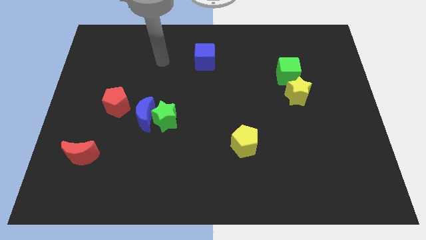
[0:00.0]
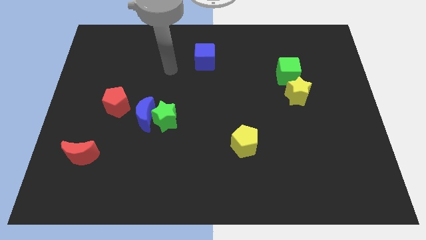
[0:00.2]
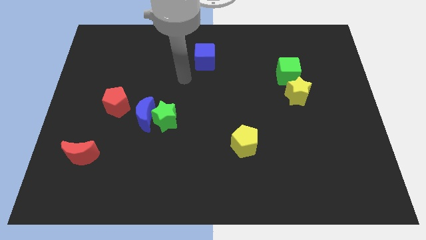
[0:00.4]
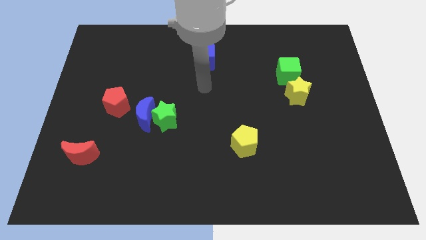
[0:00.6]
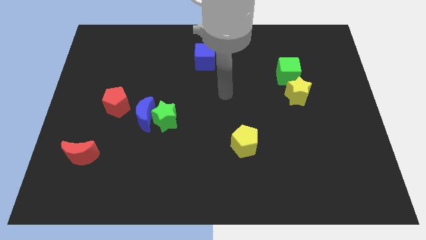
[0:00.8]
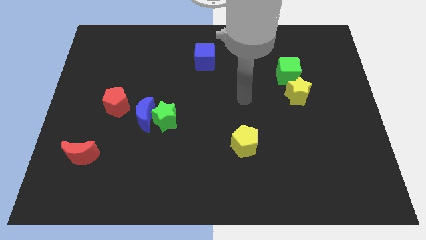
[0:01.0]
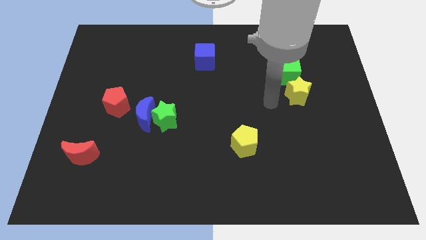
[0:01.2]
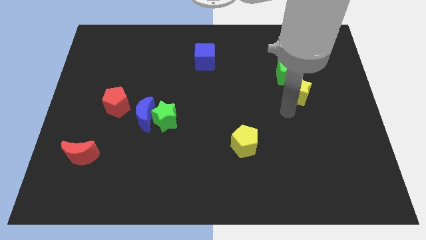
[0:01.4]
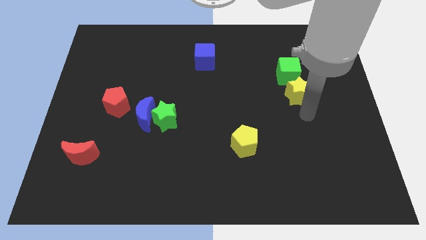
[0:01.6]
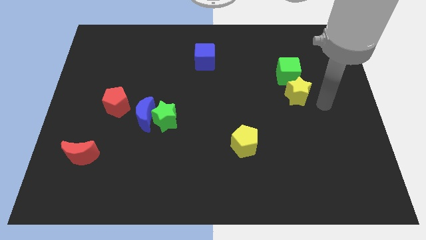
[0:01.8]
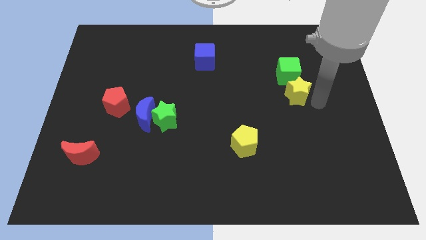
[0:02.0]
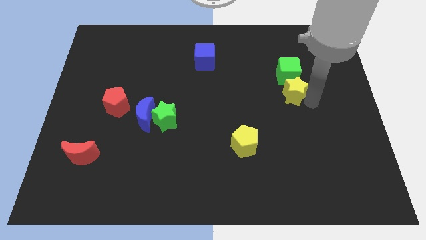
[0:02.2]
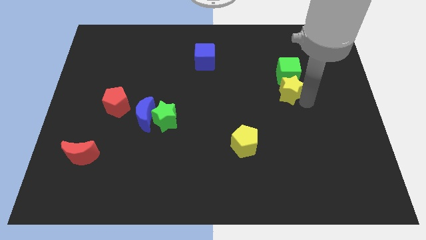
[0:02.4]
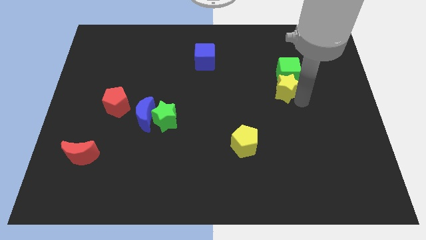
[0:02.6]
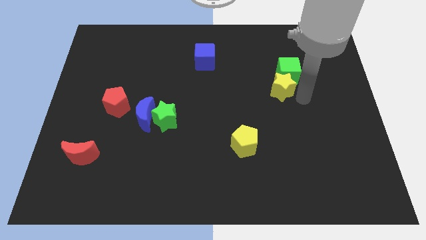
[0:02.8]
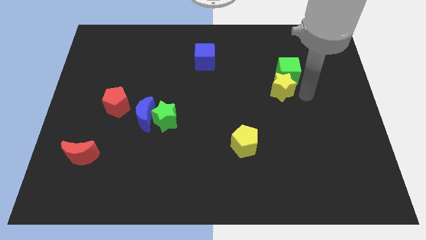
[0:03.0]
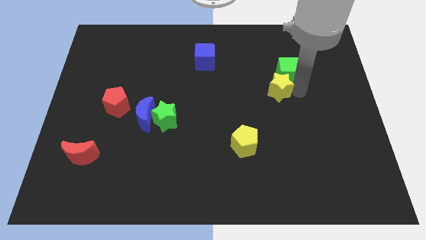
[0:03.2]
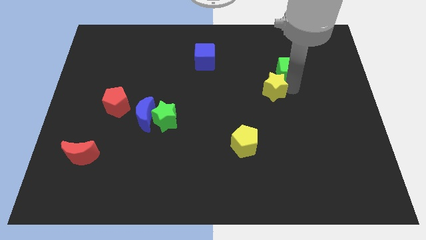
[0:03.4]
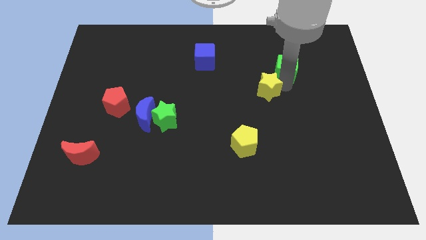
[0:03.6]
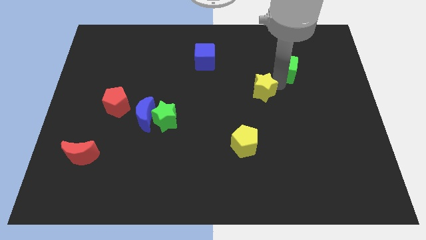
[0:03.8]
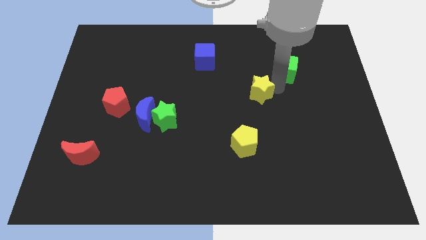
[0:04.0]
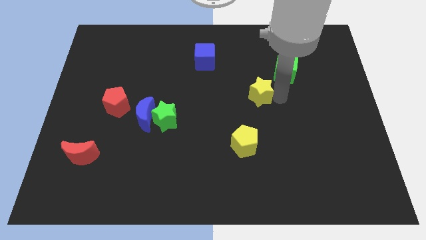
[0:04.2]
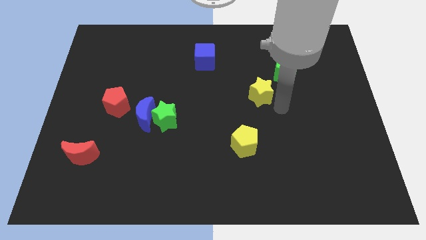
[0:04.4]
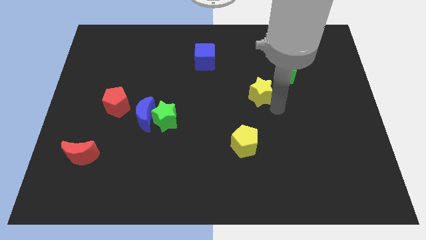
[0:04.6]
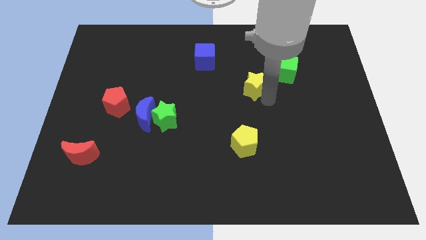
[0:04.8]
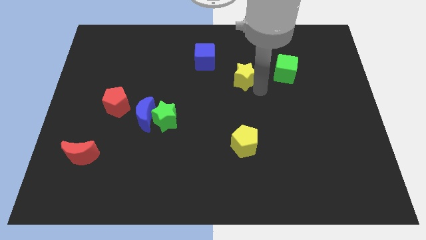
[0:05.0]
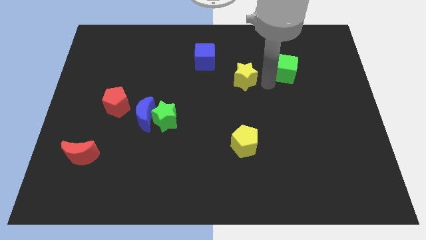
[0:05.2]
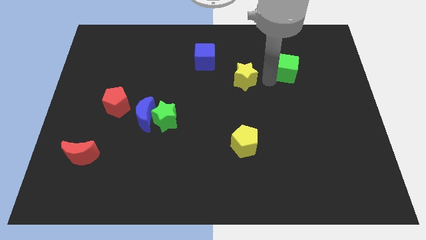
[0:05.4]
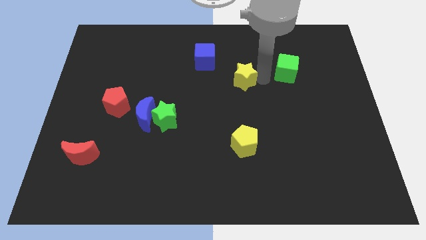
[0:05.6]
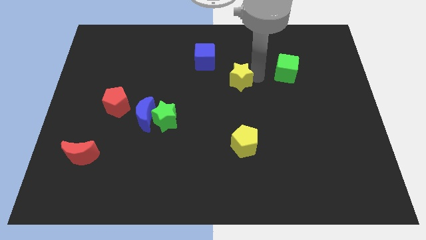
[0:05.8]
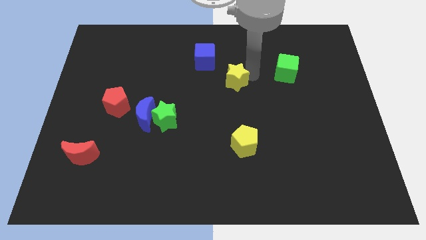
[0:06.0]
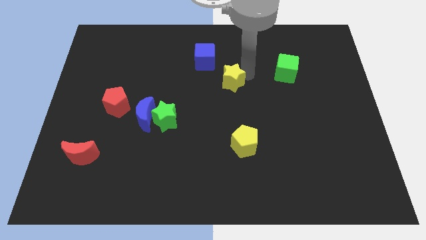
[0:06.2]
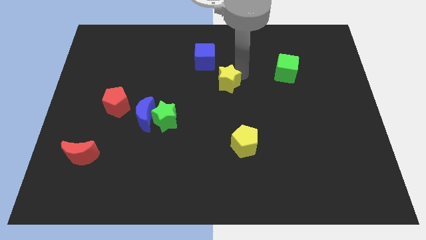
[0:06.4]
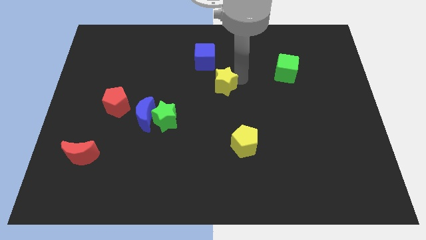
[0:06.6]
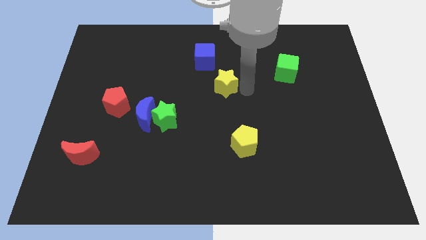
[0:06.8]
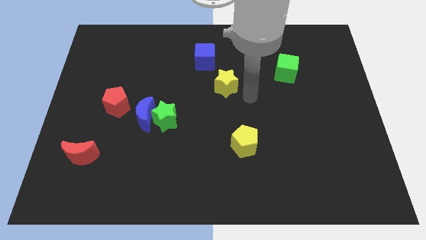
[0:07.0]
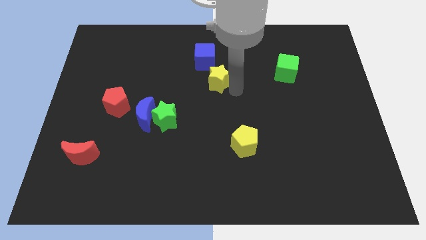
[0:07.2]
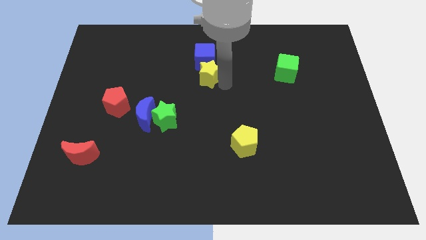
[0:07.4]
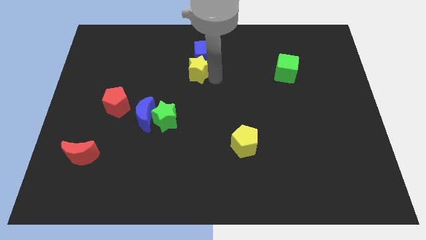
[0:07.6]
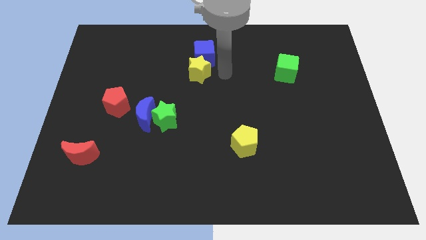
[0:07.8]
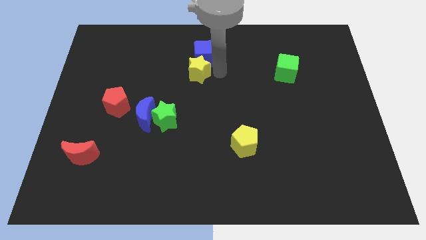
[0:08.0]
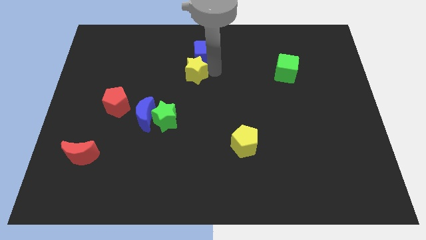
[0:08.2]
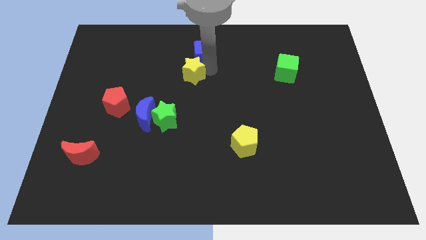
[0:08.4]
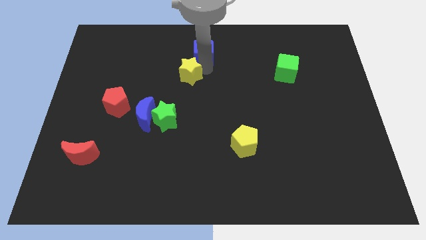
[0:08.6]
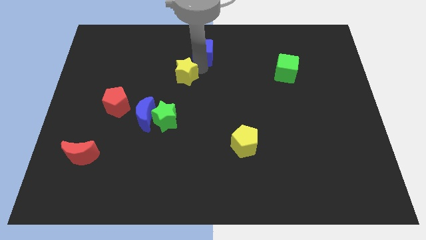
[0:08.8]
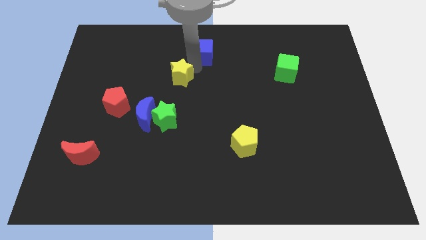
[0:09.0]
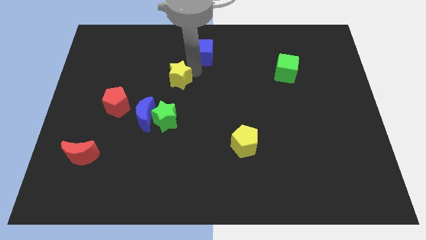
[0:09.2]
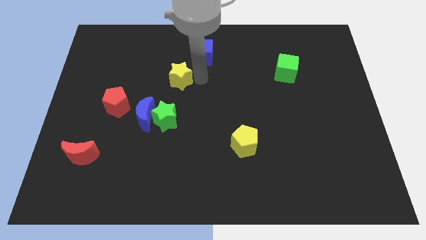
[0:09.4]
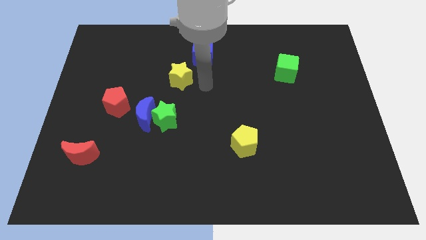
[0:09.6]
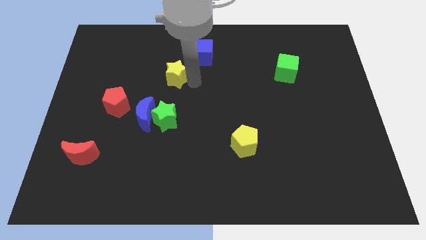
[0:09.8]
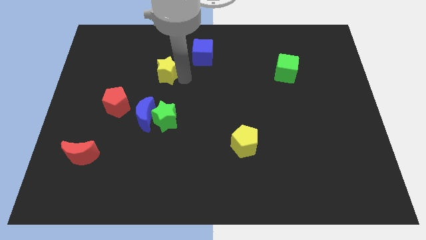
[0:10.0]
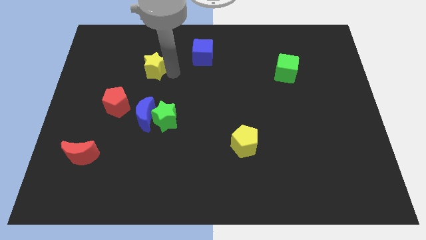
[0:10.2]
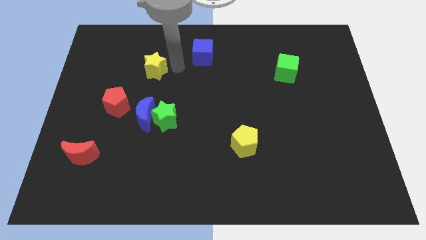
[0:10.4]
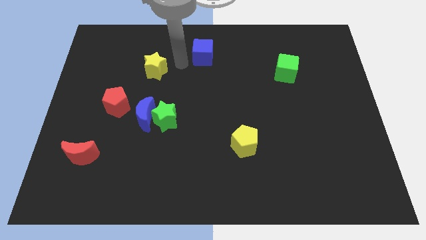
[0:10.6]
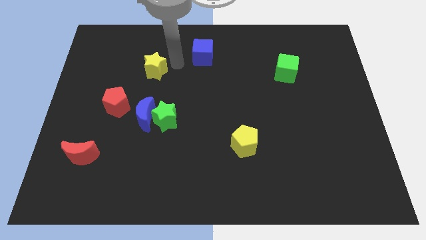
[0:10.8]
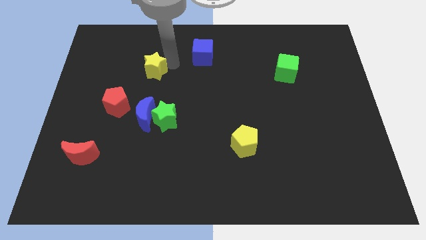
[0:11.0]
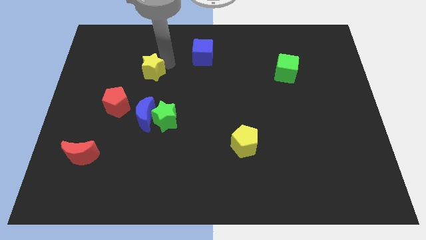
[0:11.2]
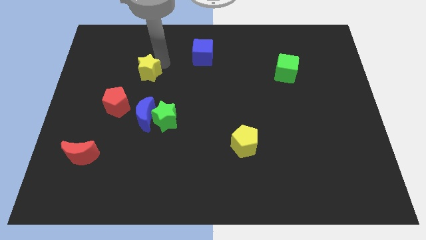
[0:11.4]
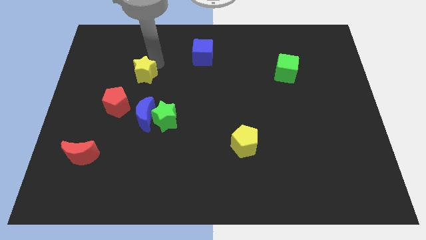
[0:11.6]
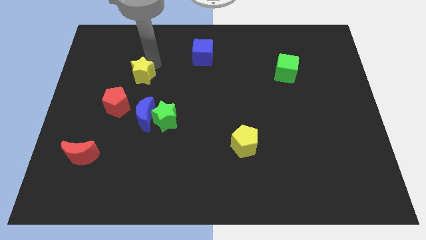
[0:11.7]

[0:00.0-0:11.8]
put the yellow star to the top of the red pentagon

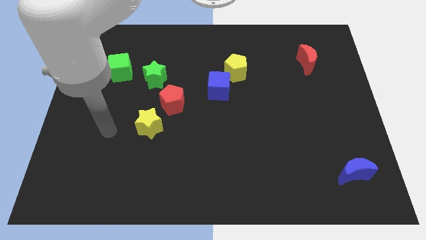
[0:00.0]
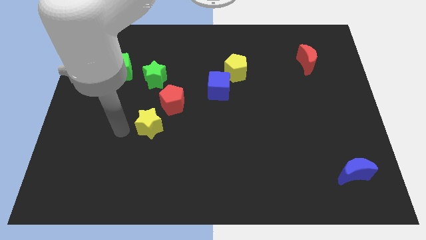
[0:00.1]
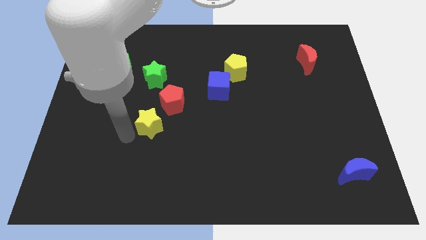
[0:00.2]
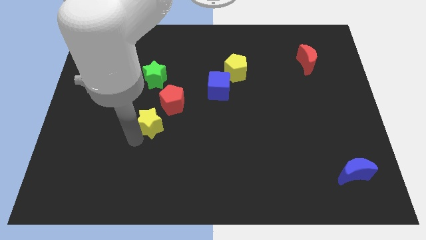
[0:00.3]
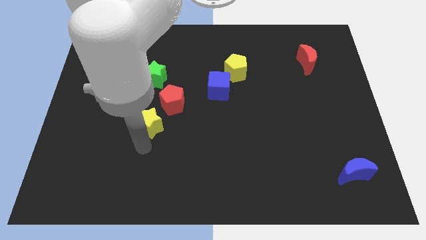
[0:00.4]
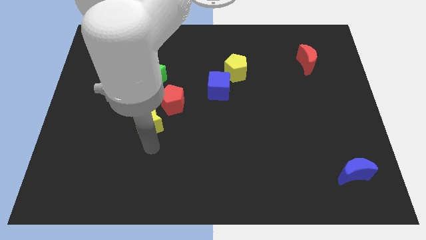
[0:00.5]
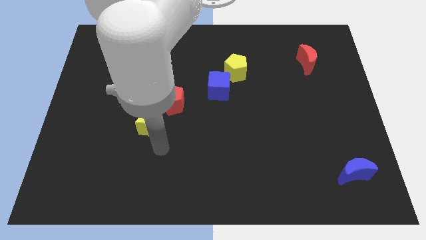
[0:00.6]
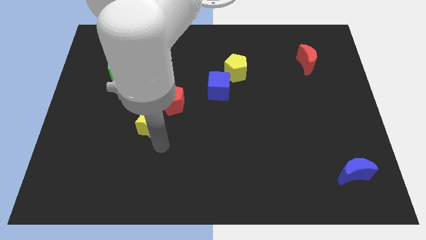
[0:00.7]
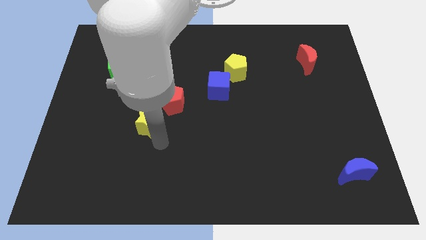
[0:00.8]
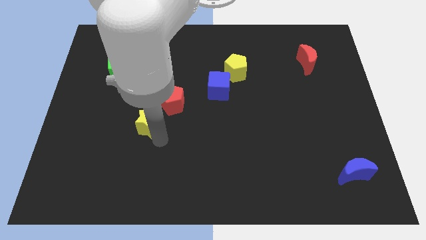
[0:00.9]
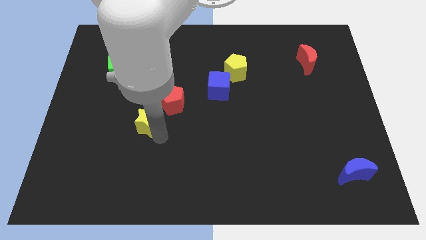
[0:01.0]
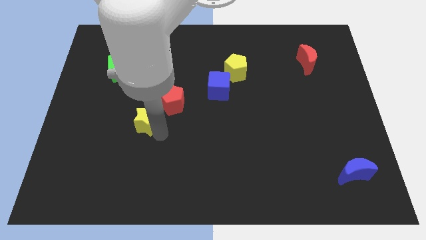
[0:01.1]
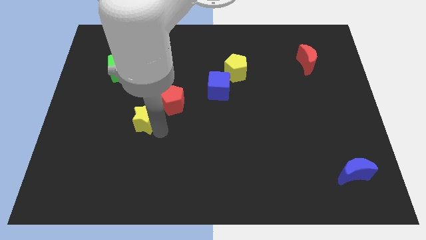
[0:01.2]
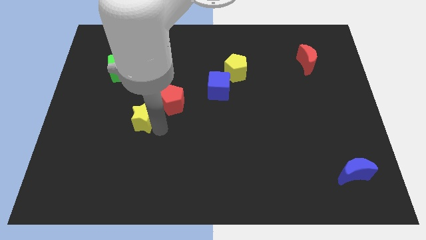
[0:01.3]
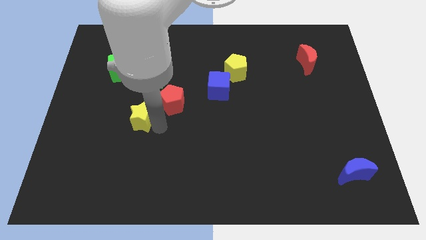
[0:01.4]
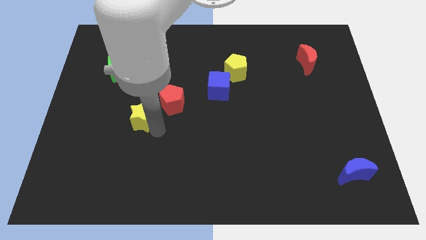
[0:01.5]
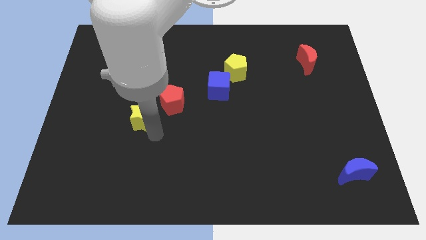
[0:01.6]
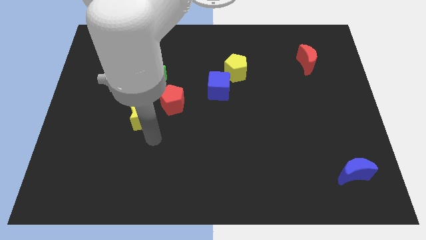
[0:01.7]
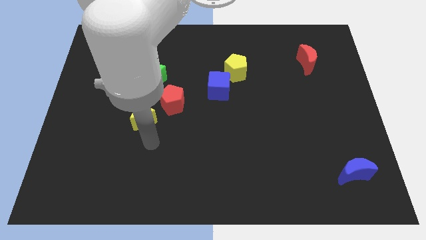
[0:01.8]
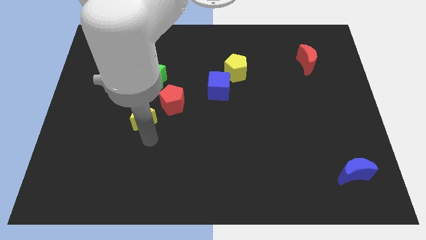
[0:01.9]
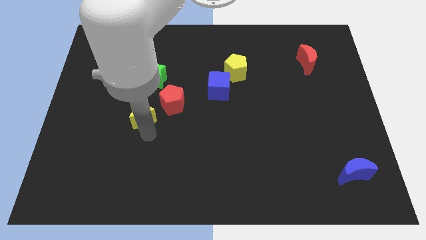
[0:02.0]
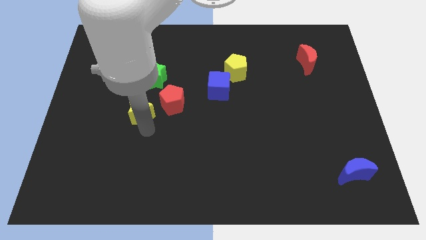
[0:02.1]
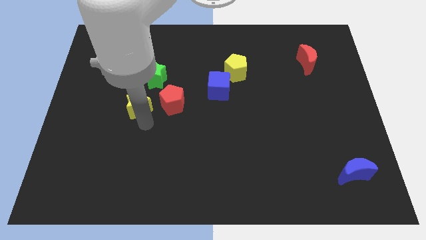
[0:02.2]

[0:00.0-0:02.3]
slide the yellow star diagonally down and to the left of the green star
